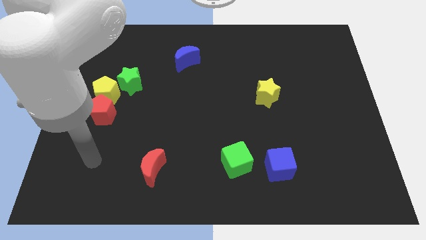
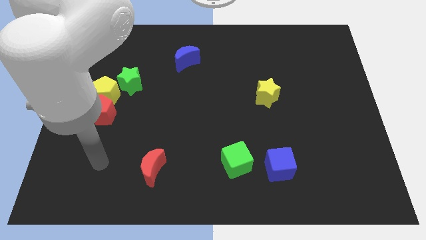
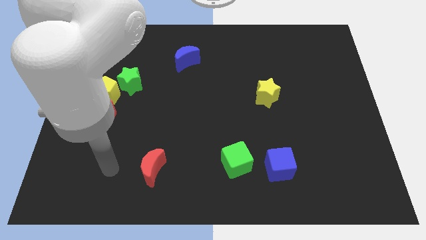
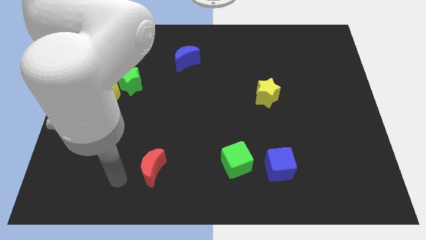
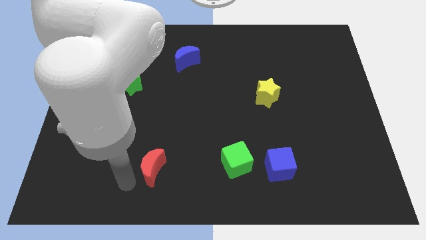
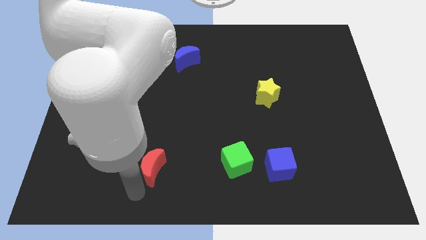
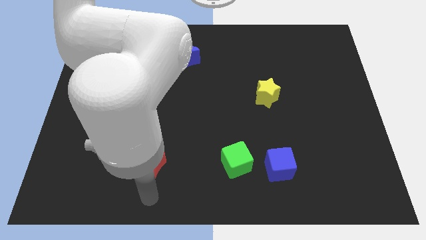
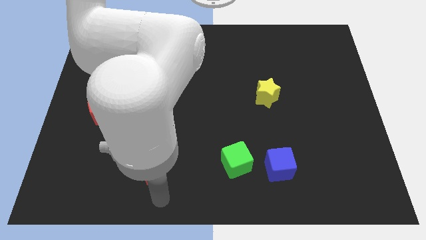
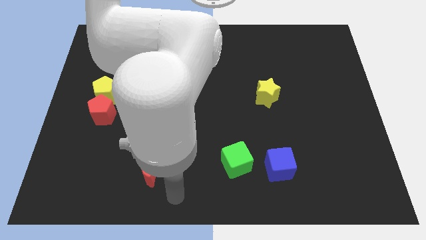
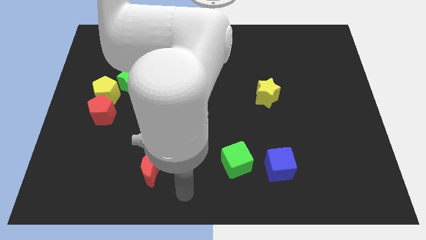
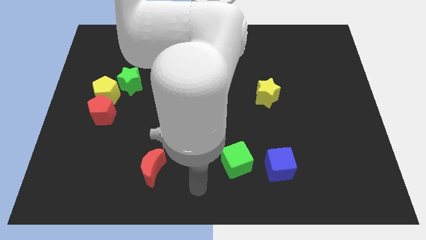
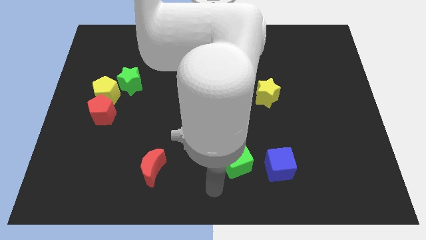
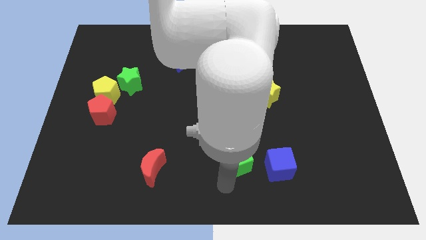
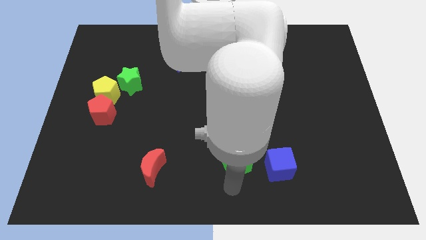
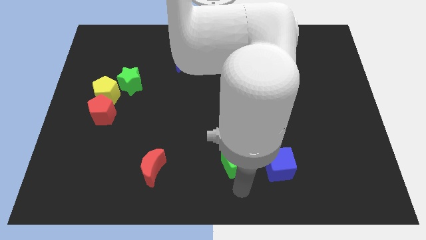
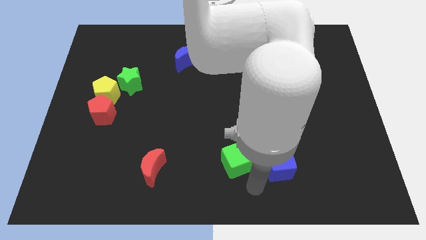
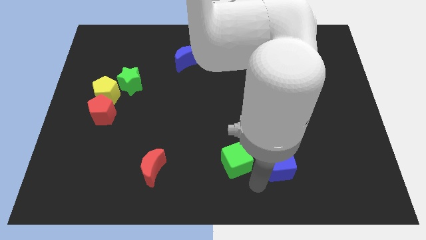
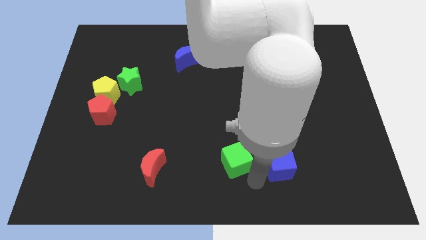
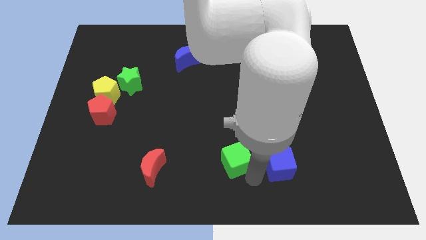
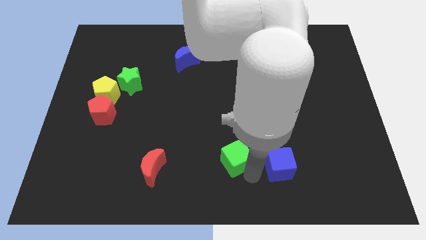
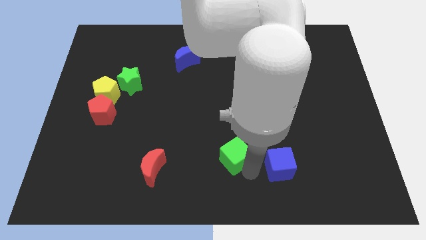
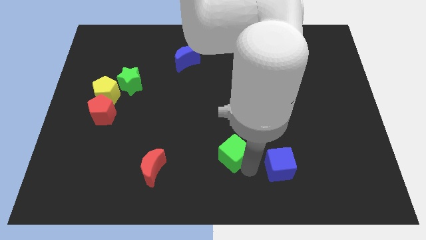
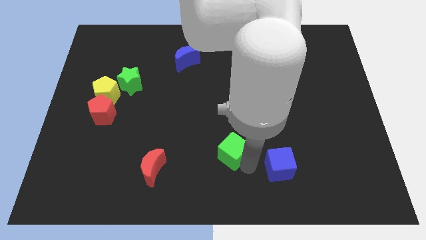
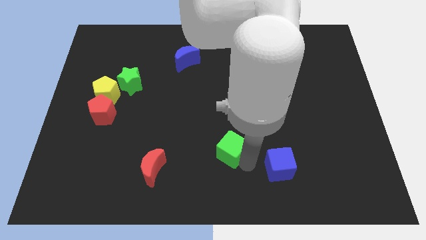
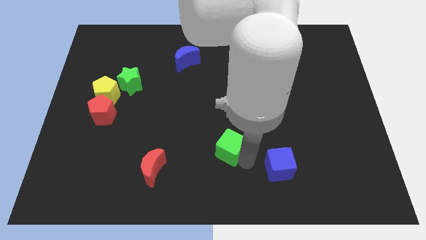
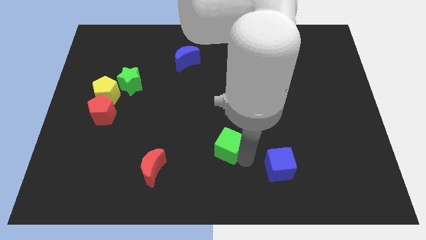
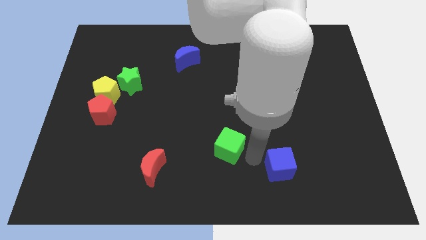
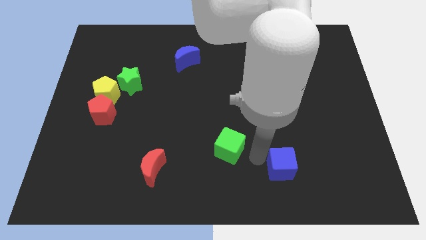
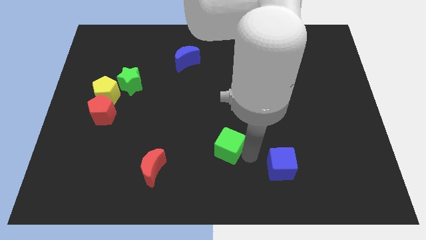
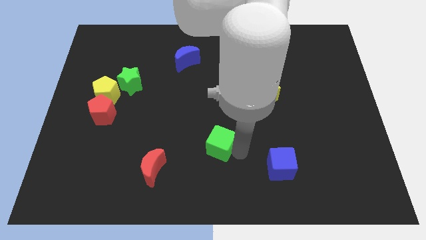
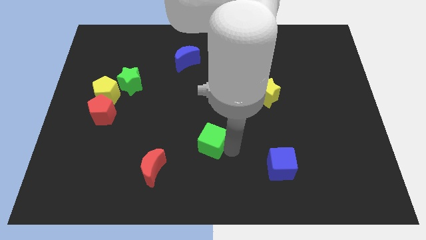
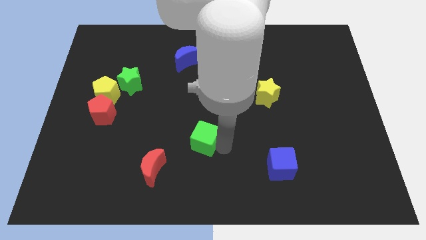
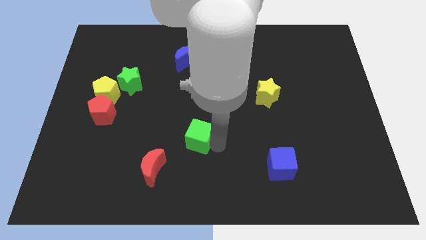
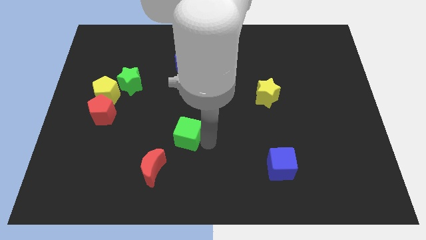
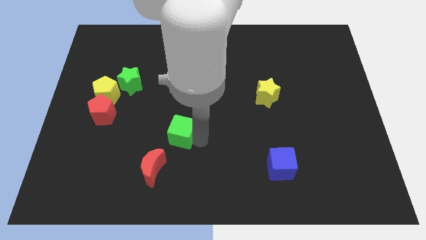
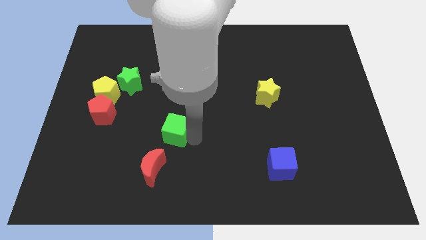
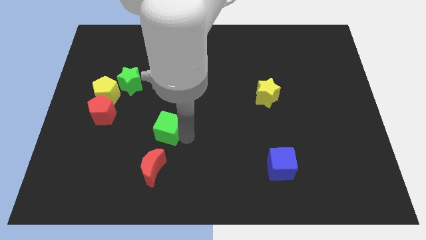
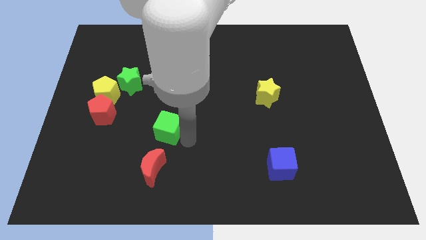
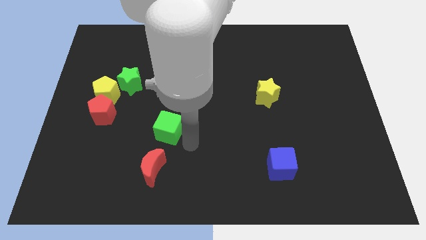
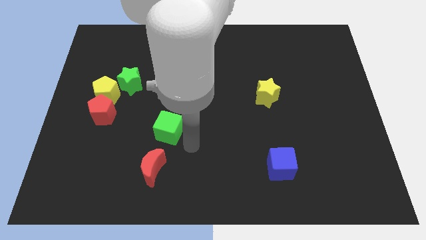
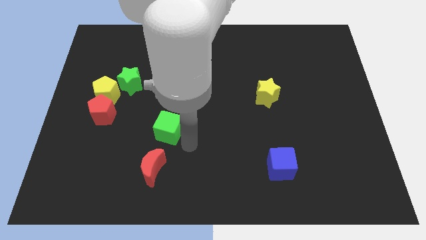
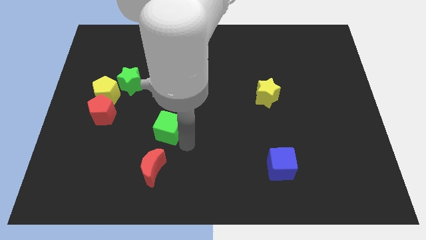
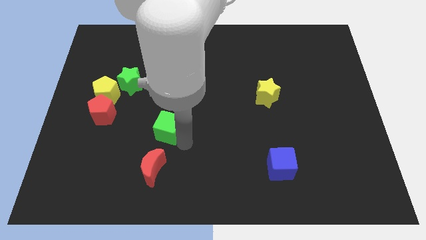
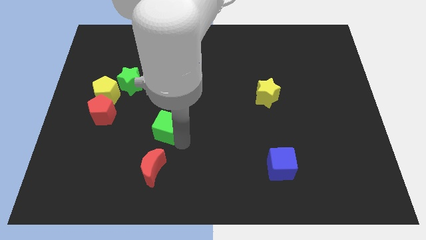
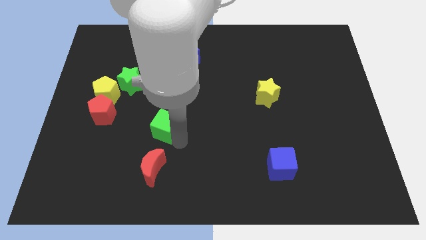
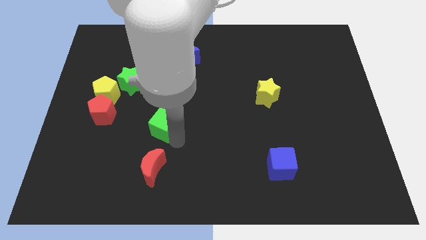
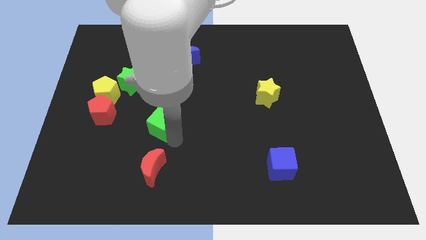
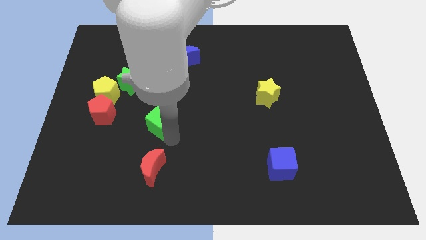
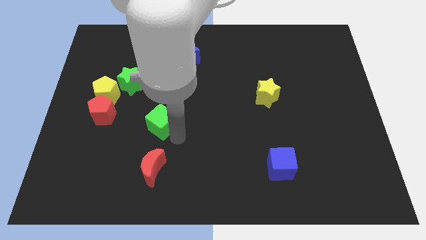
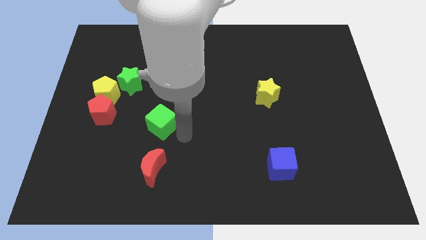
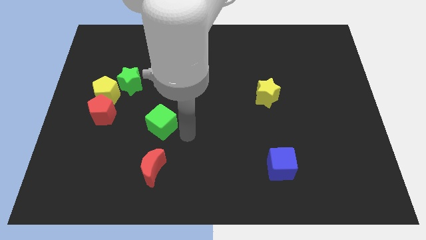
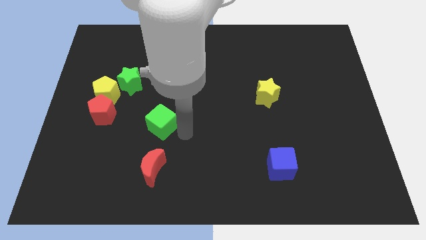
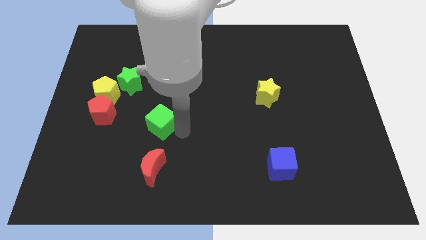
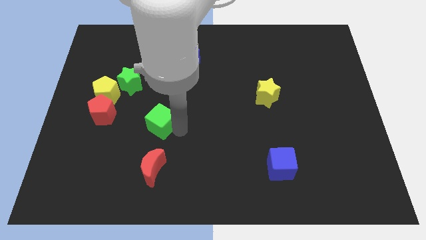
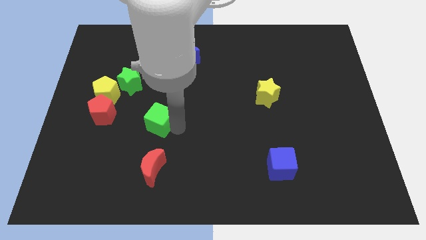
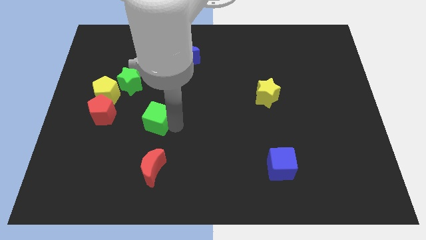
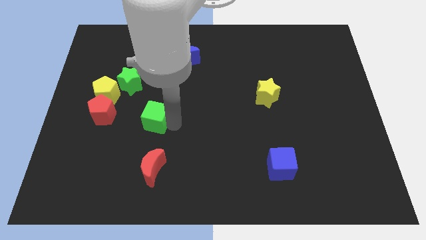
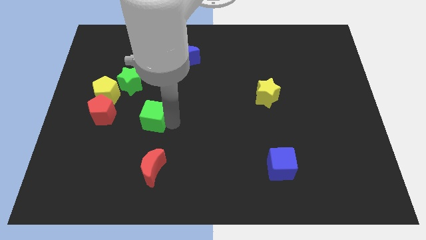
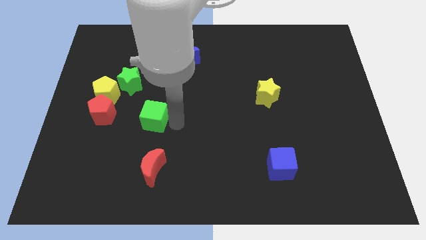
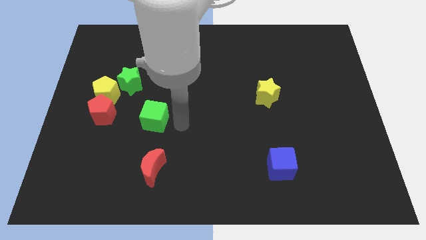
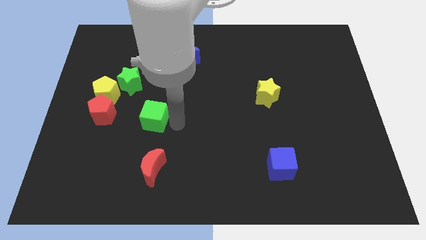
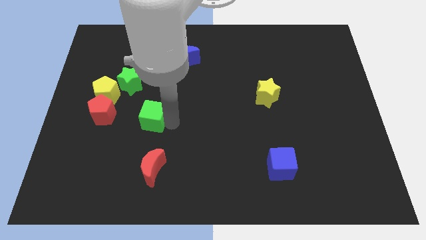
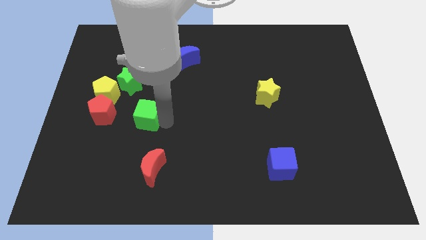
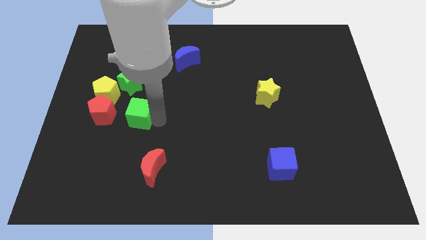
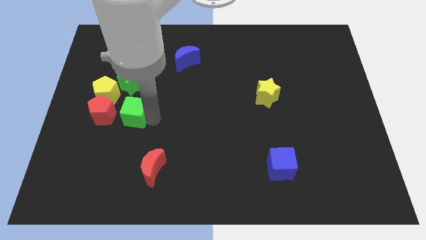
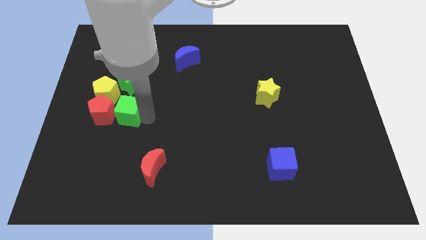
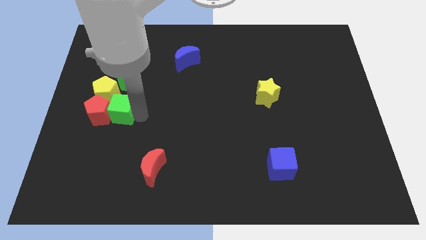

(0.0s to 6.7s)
move the green cube next to the red pentagon

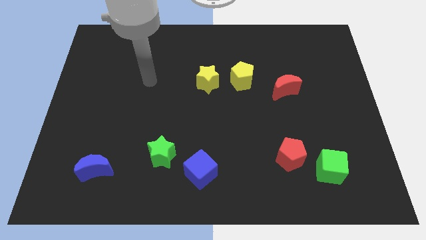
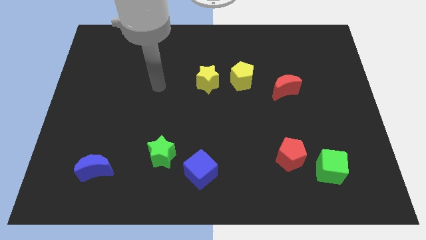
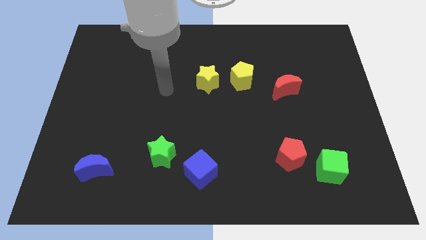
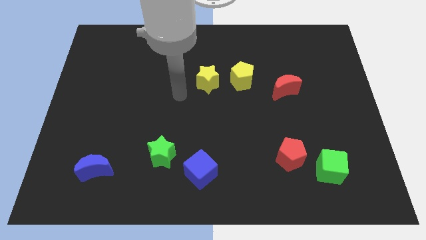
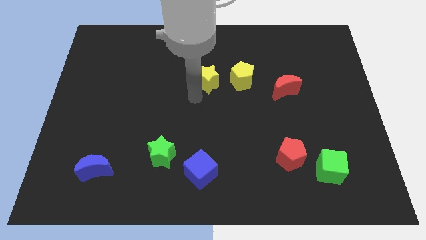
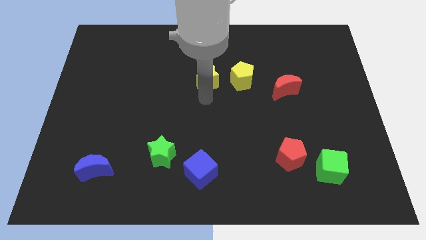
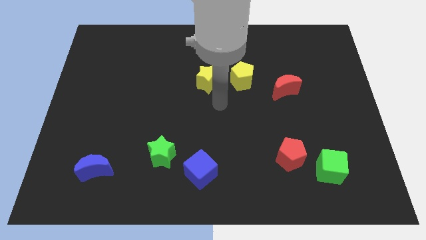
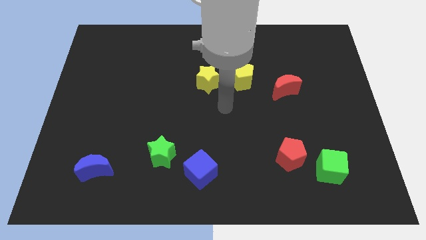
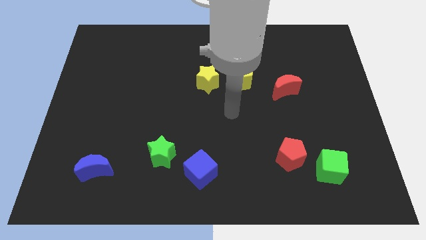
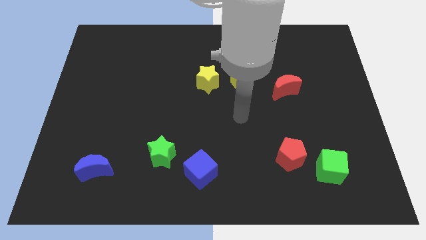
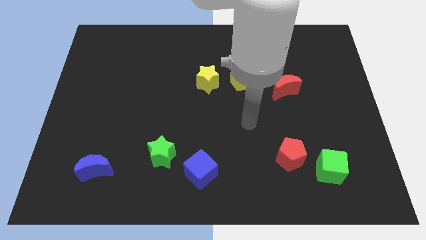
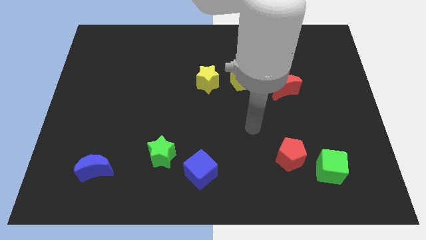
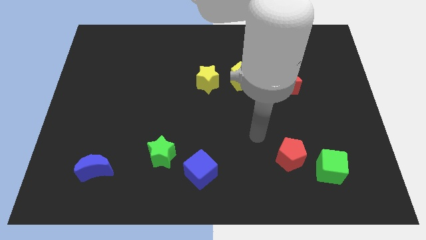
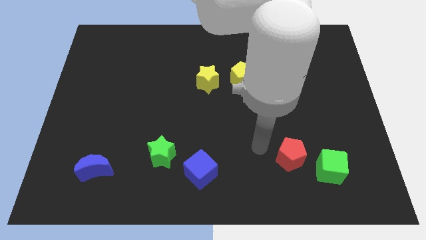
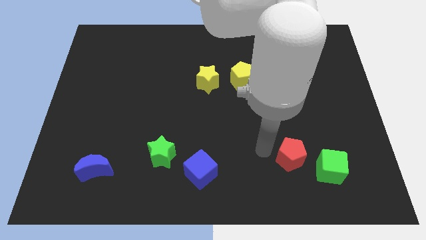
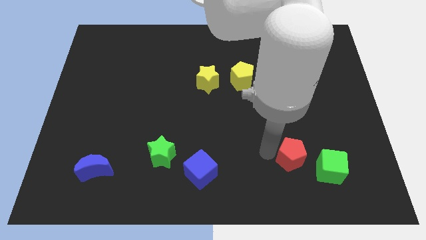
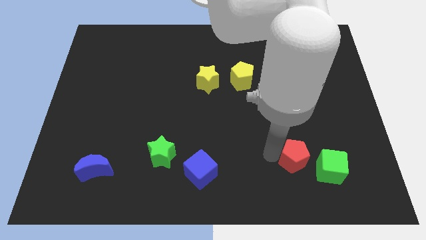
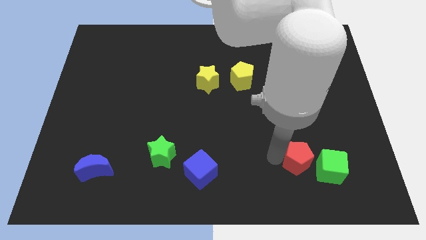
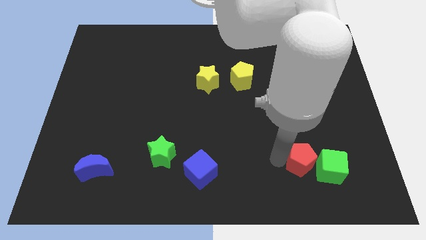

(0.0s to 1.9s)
move the red pentagon to the green cube
